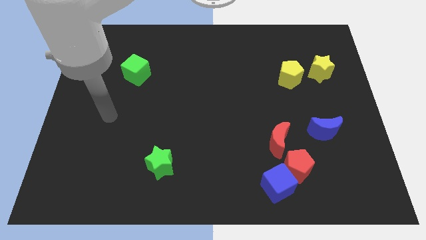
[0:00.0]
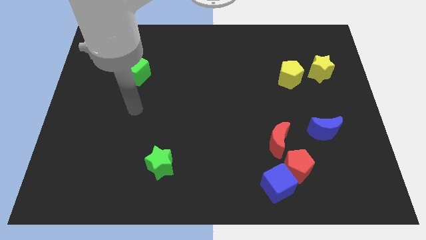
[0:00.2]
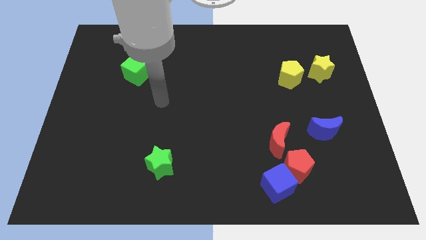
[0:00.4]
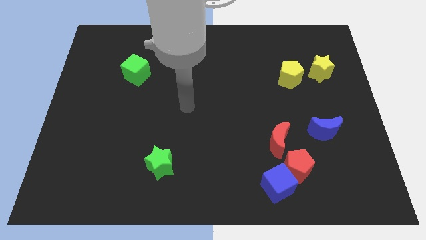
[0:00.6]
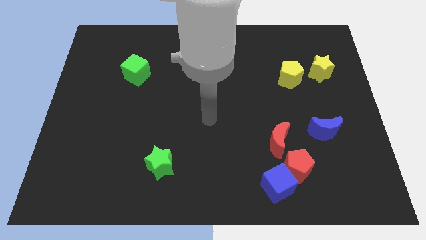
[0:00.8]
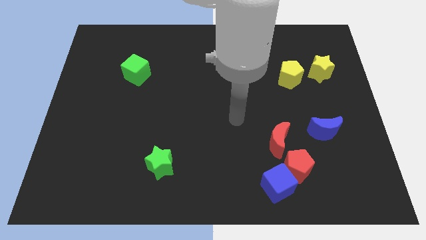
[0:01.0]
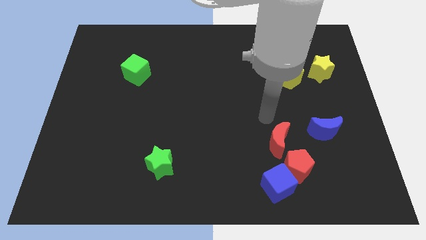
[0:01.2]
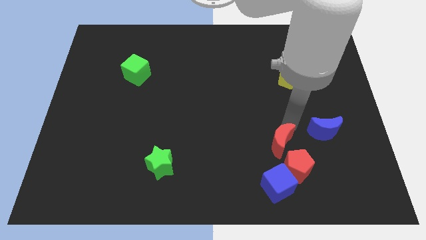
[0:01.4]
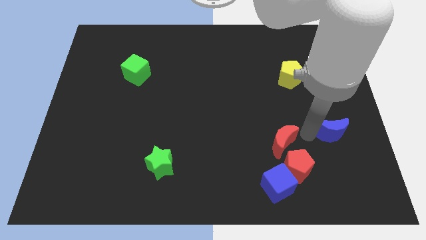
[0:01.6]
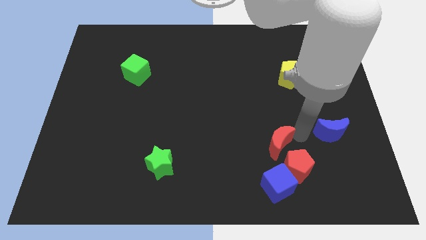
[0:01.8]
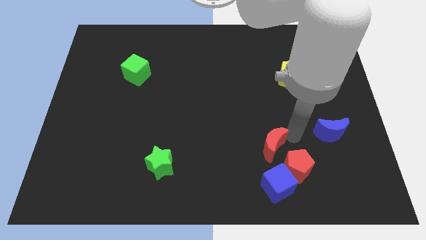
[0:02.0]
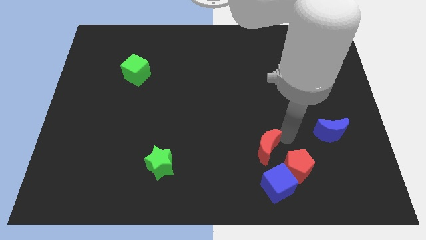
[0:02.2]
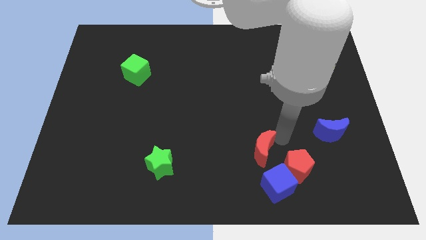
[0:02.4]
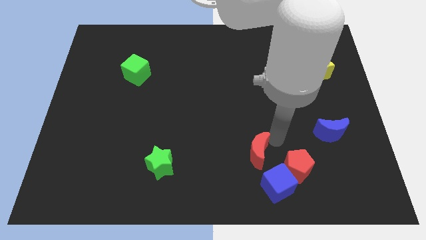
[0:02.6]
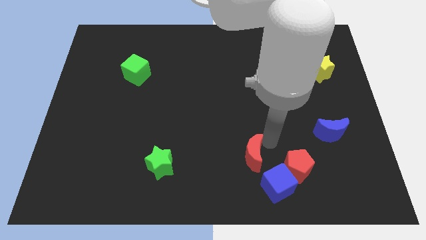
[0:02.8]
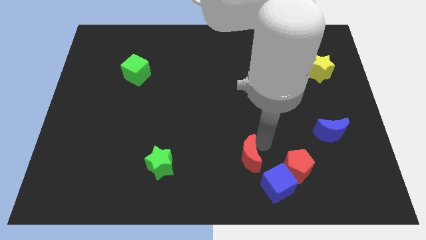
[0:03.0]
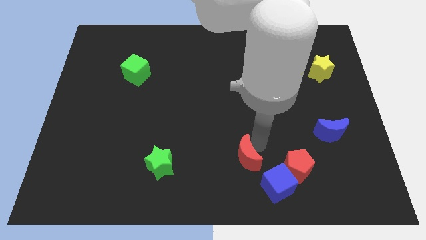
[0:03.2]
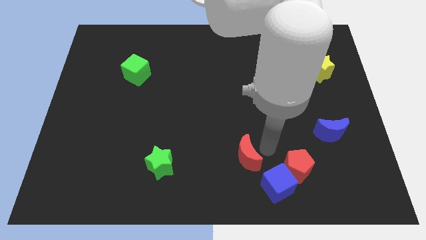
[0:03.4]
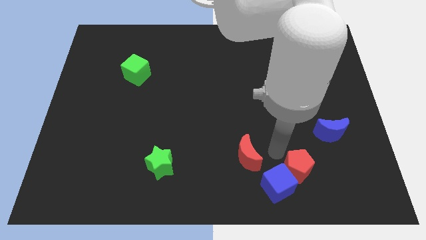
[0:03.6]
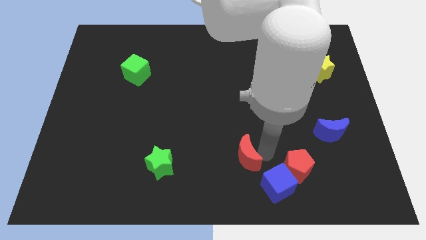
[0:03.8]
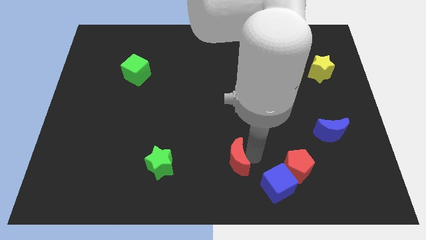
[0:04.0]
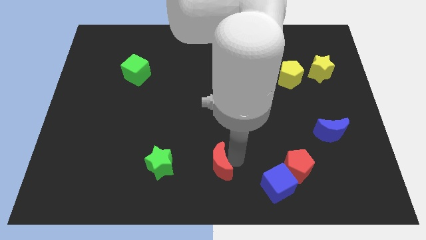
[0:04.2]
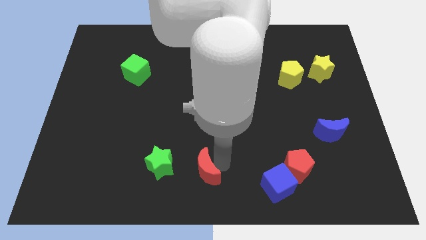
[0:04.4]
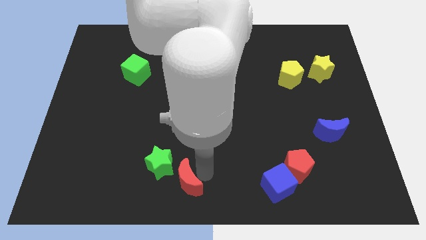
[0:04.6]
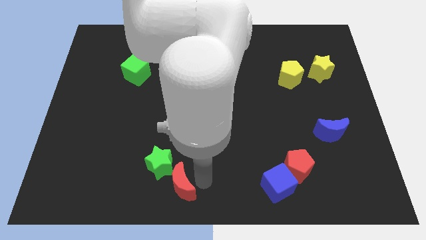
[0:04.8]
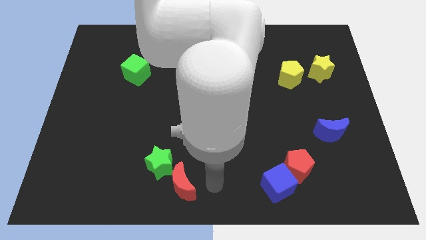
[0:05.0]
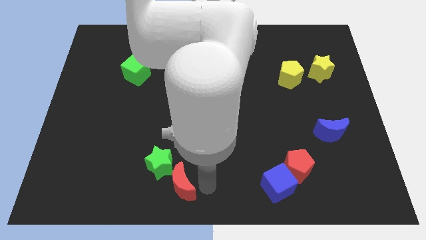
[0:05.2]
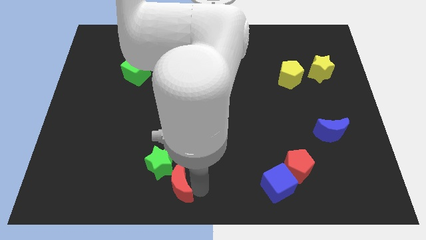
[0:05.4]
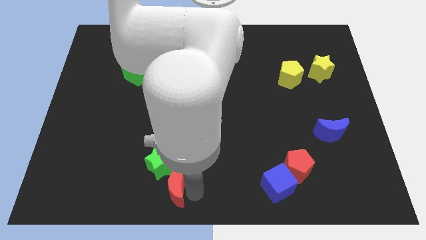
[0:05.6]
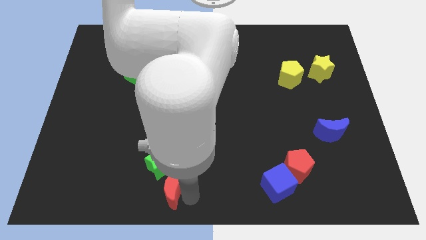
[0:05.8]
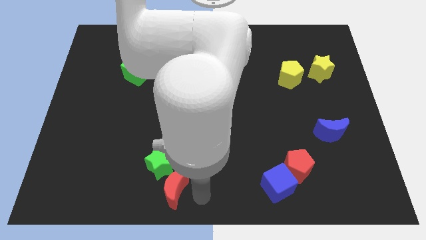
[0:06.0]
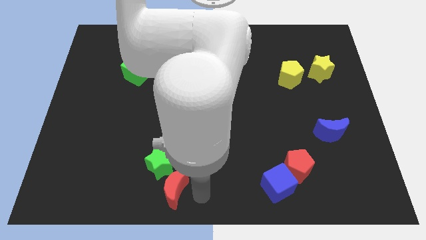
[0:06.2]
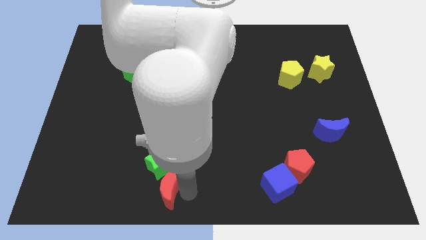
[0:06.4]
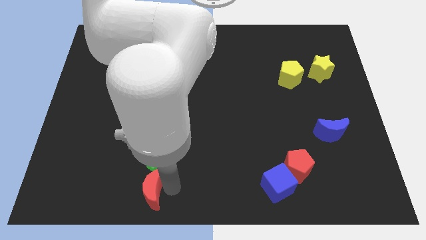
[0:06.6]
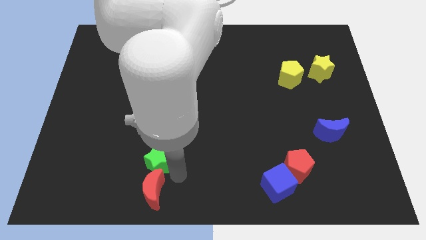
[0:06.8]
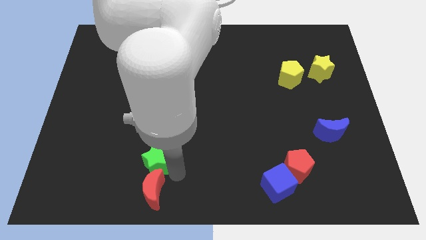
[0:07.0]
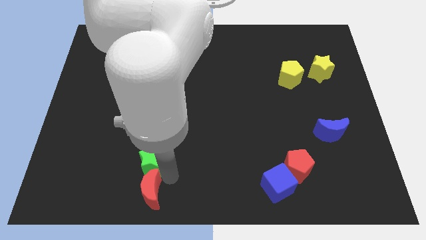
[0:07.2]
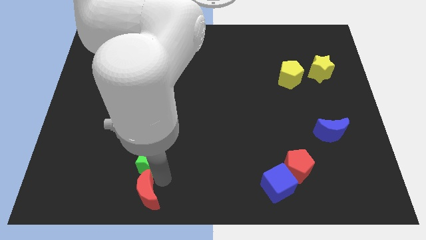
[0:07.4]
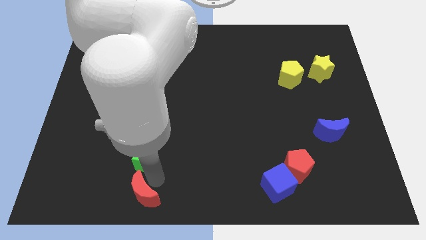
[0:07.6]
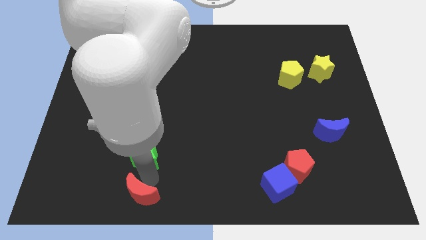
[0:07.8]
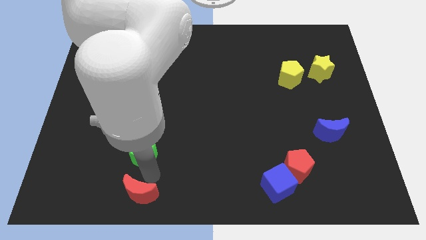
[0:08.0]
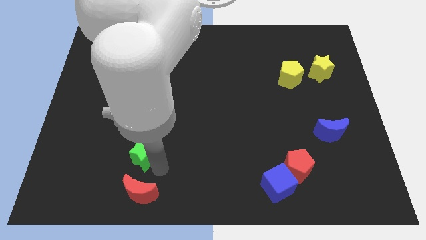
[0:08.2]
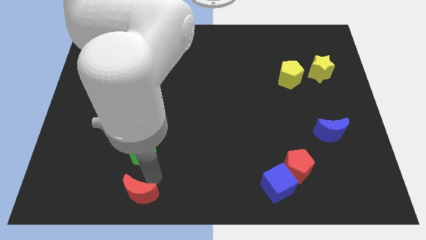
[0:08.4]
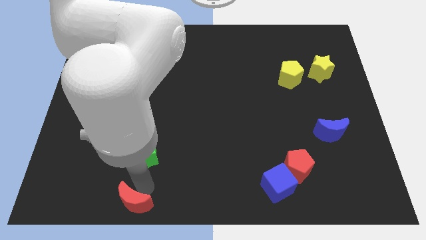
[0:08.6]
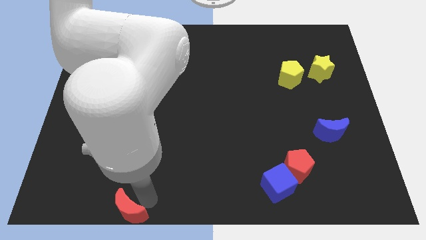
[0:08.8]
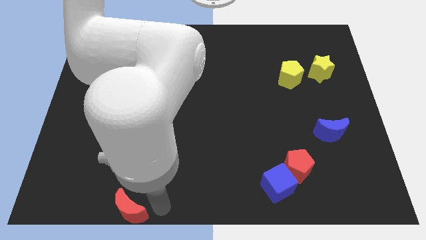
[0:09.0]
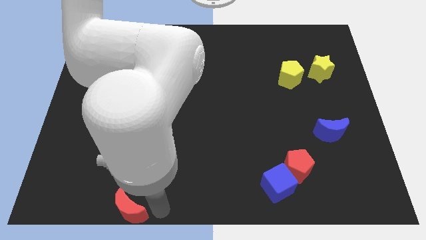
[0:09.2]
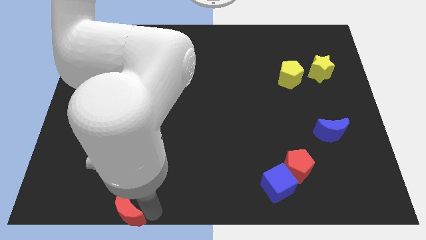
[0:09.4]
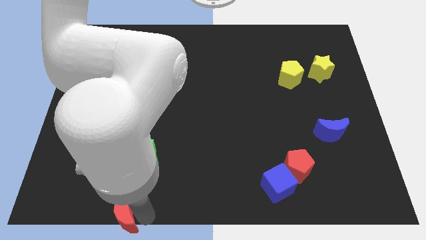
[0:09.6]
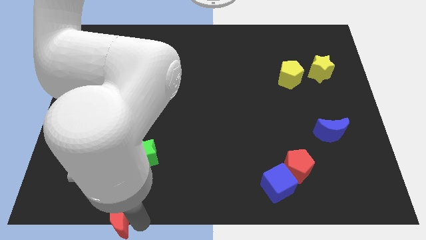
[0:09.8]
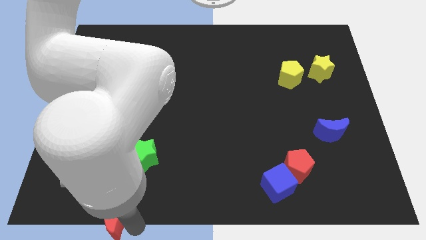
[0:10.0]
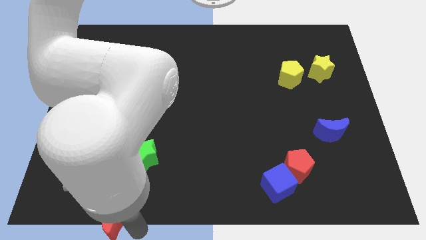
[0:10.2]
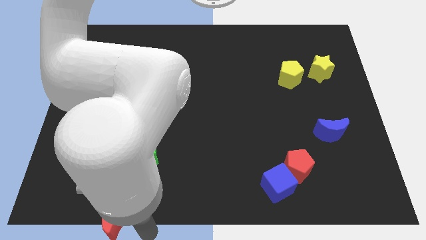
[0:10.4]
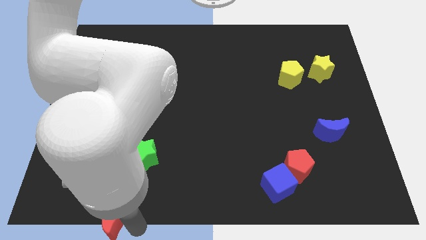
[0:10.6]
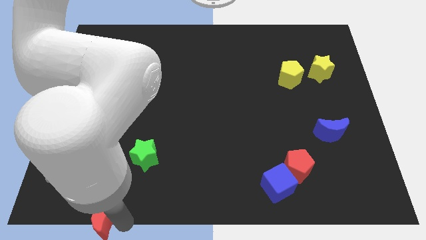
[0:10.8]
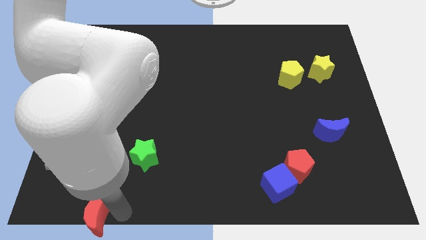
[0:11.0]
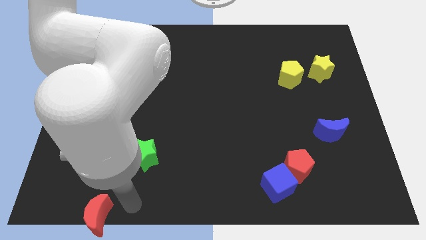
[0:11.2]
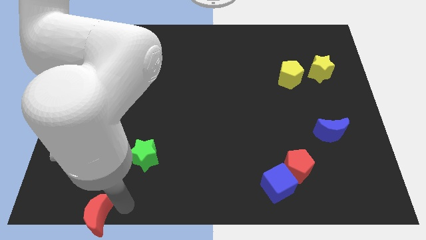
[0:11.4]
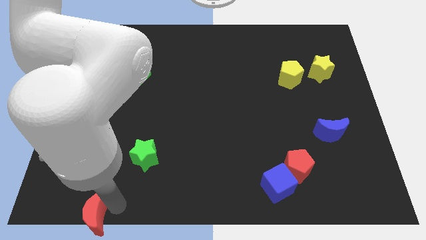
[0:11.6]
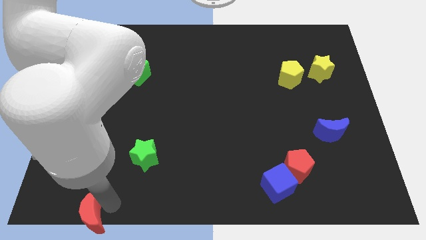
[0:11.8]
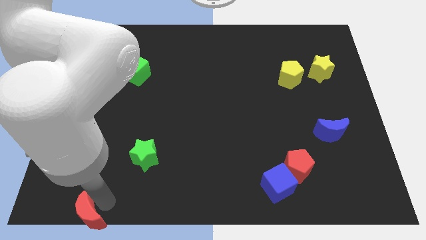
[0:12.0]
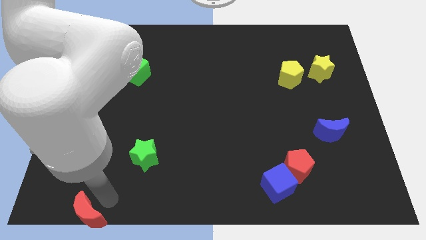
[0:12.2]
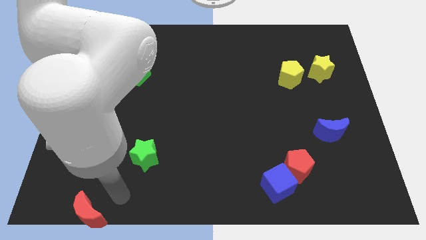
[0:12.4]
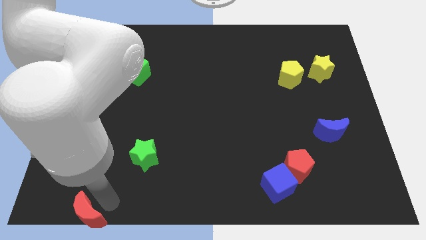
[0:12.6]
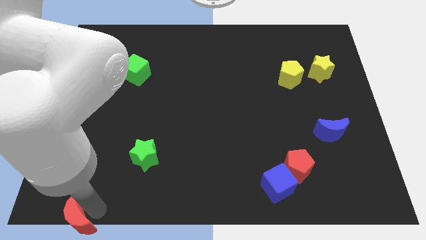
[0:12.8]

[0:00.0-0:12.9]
push the red moon to the bottom left
